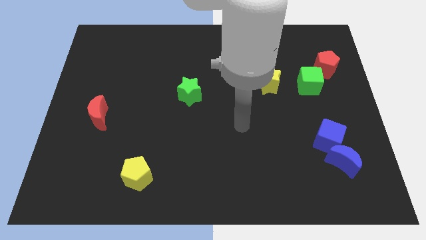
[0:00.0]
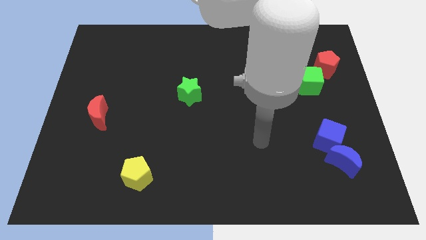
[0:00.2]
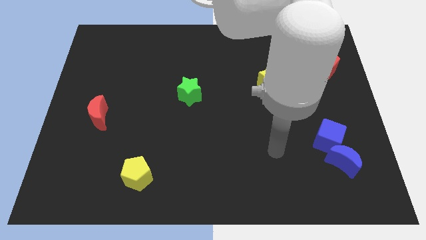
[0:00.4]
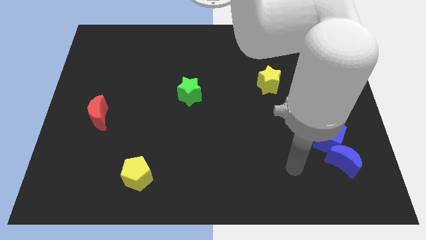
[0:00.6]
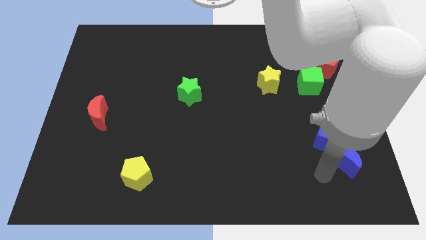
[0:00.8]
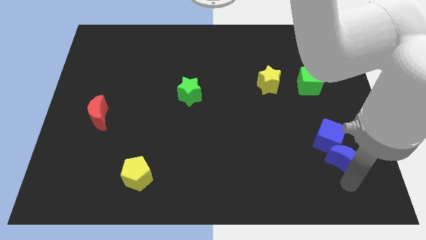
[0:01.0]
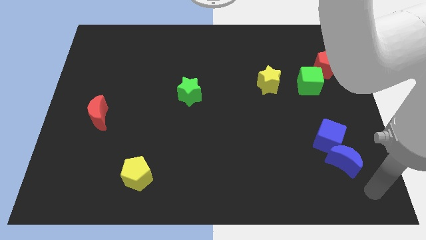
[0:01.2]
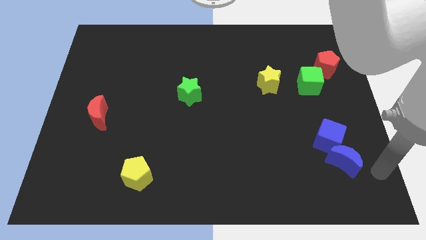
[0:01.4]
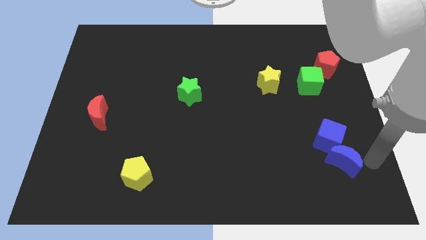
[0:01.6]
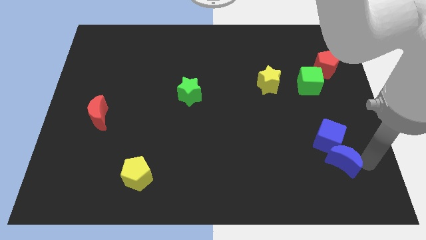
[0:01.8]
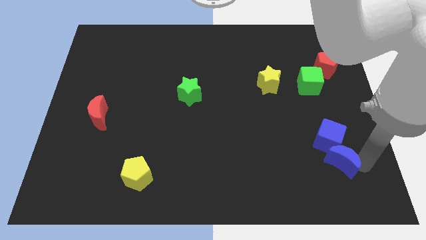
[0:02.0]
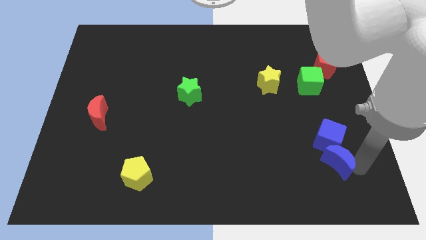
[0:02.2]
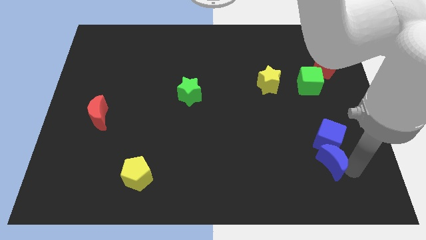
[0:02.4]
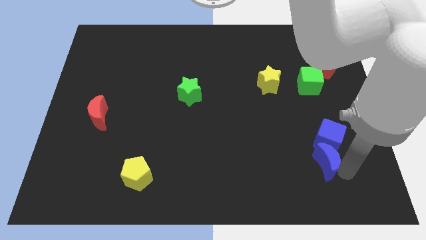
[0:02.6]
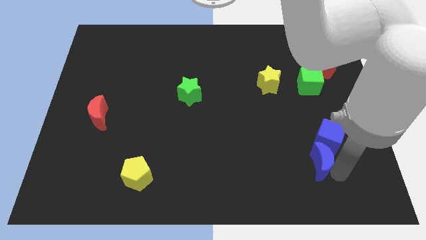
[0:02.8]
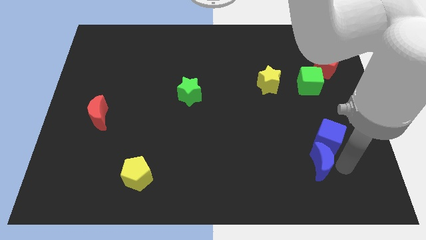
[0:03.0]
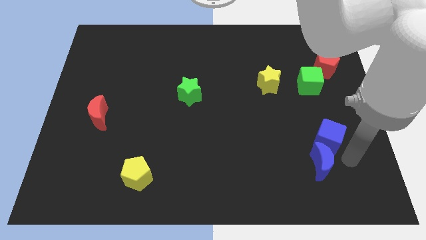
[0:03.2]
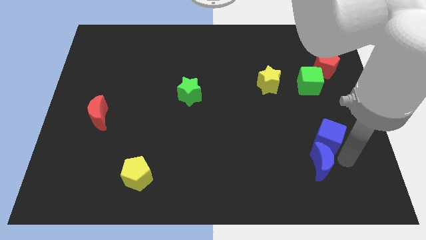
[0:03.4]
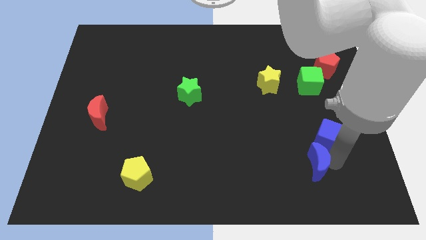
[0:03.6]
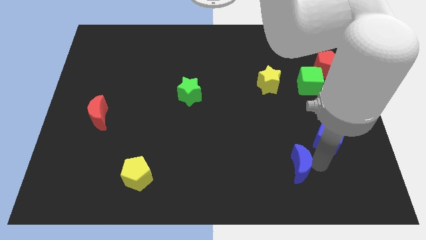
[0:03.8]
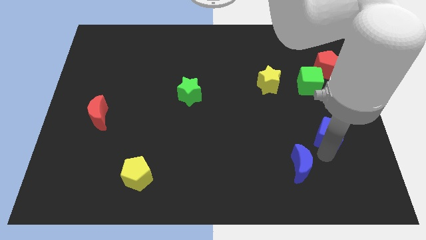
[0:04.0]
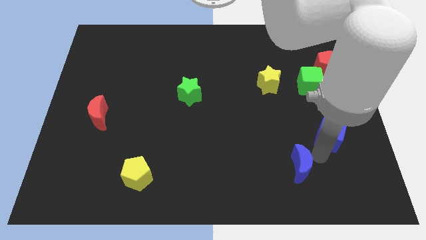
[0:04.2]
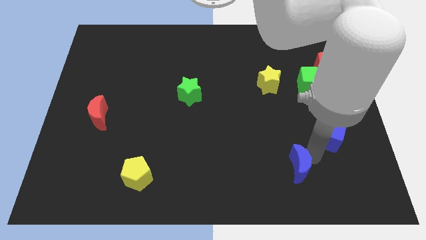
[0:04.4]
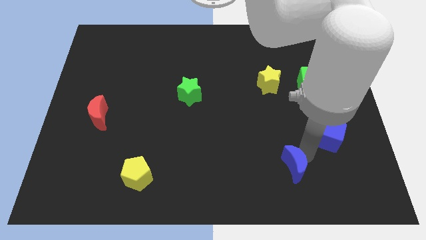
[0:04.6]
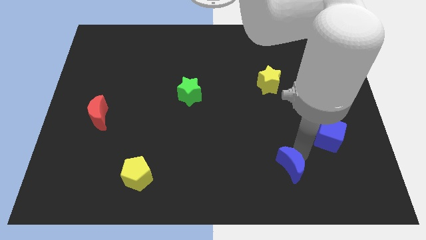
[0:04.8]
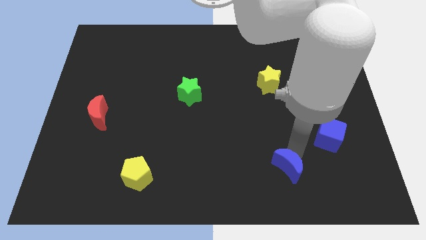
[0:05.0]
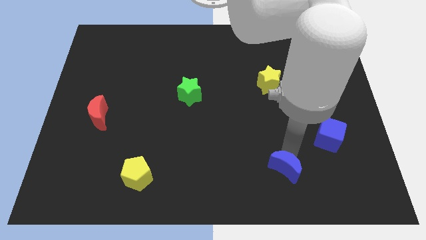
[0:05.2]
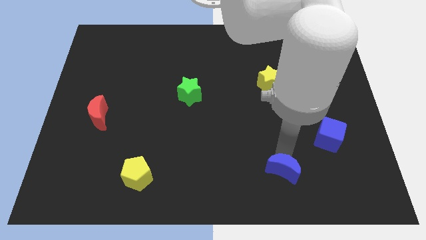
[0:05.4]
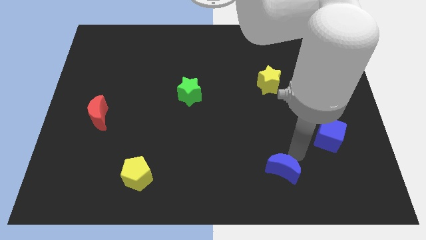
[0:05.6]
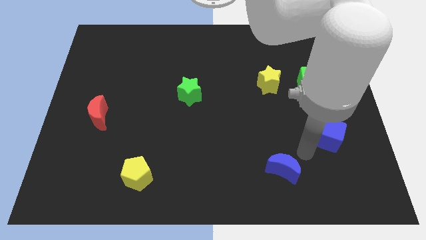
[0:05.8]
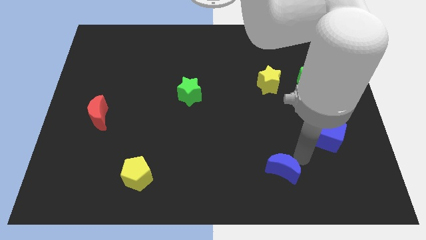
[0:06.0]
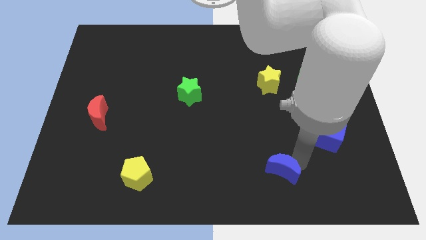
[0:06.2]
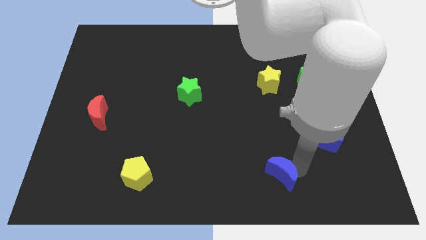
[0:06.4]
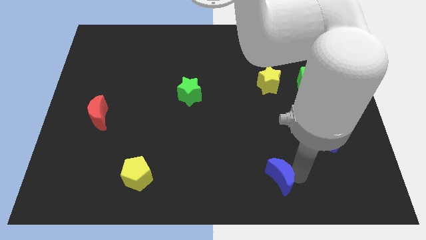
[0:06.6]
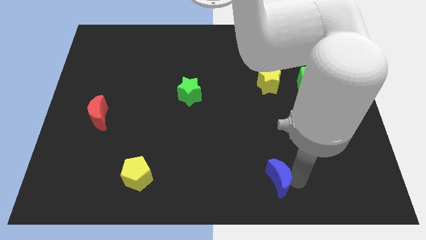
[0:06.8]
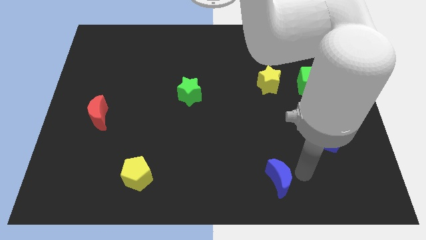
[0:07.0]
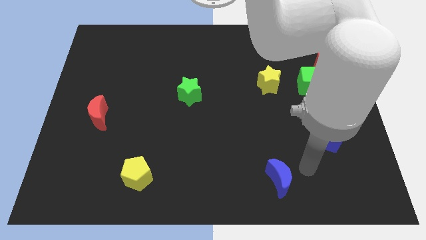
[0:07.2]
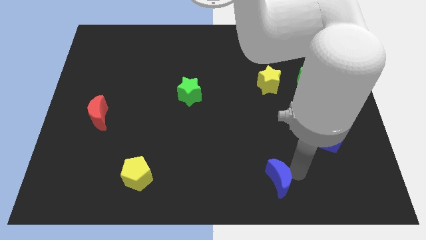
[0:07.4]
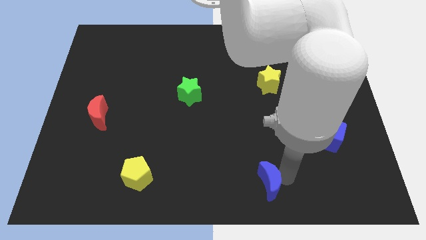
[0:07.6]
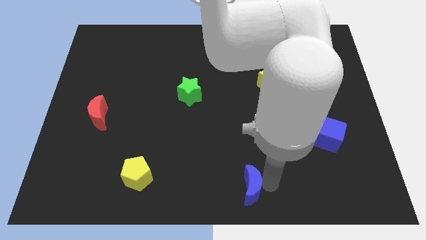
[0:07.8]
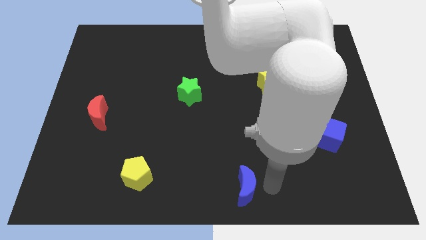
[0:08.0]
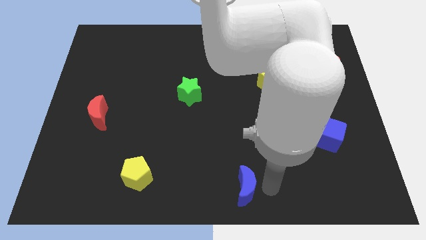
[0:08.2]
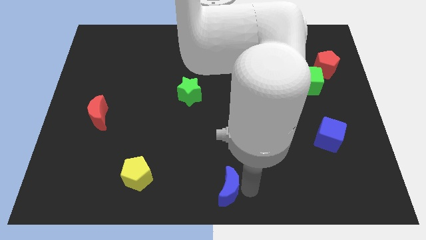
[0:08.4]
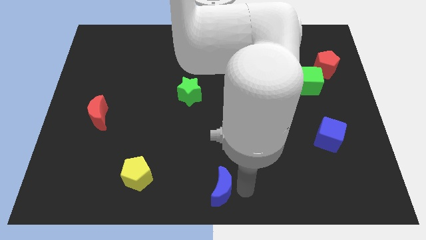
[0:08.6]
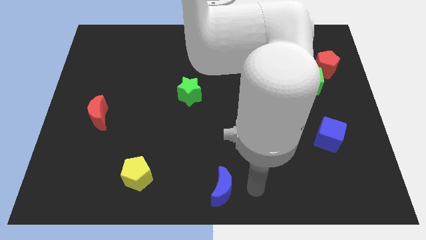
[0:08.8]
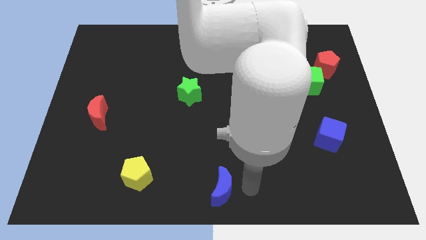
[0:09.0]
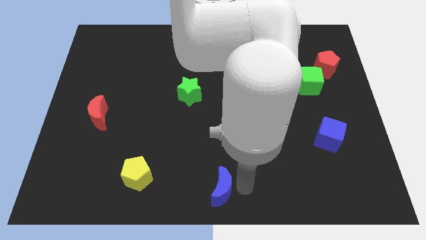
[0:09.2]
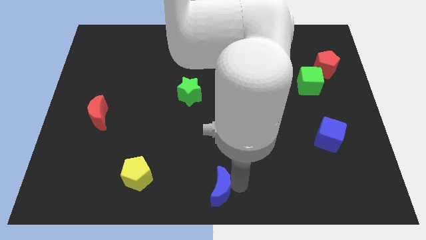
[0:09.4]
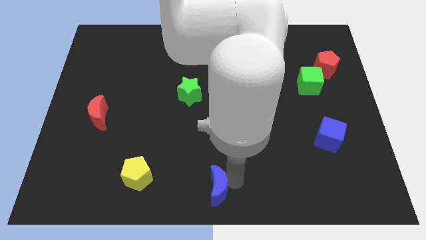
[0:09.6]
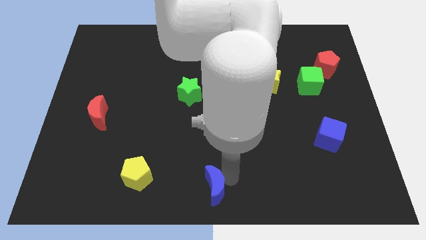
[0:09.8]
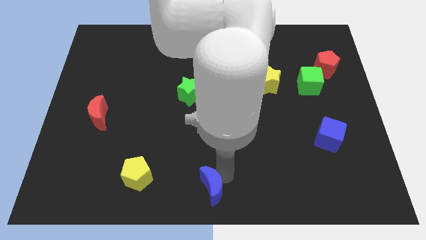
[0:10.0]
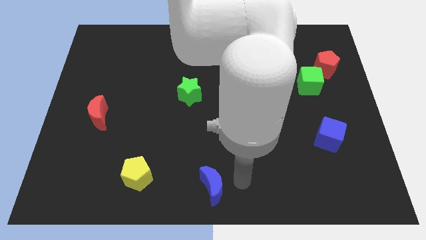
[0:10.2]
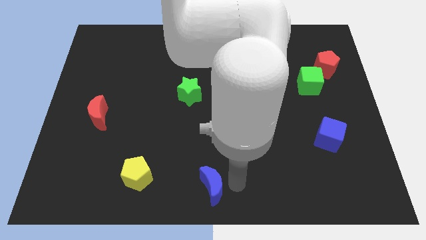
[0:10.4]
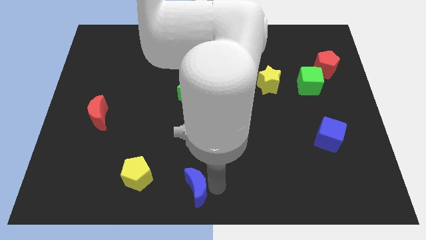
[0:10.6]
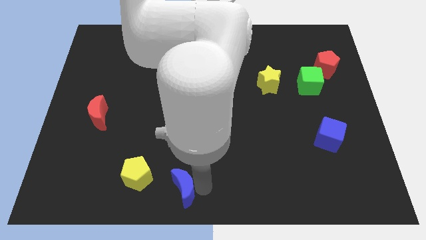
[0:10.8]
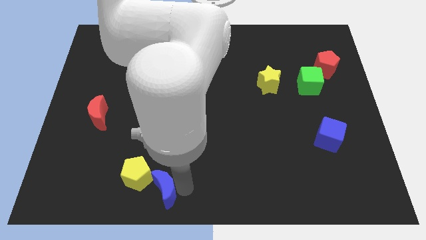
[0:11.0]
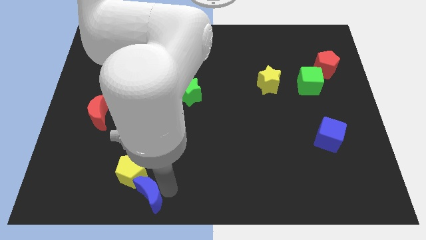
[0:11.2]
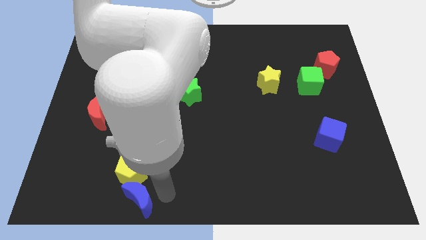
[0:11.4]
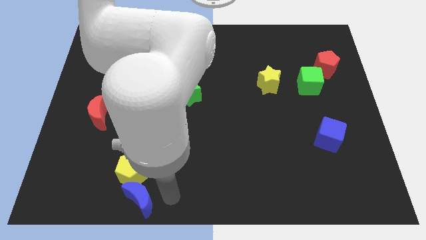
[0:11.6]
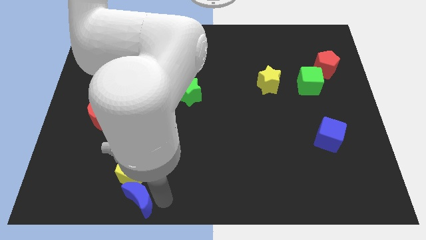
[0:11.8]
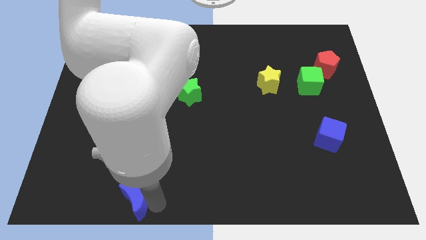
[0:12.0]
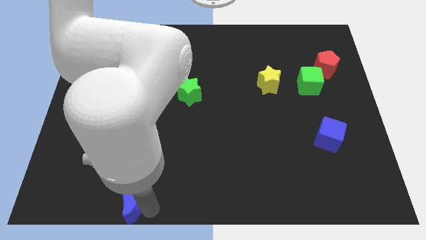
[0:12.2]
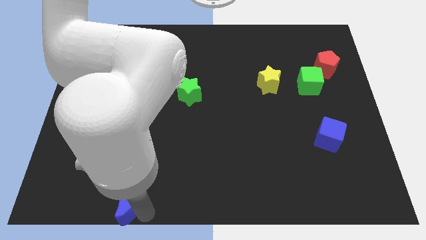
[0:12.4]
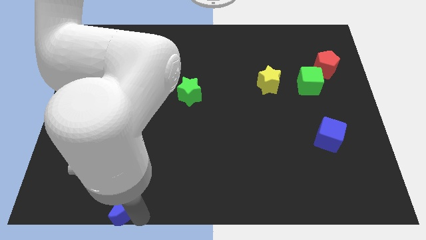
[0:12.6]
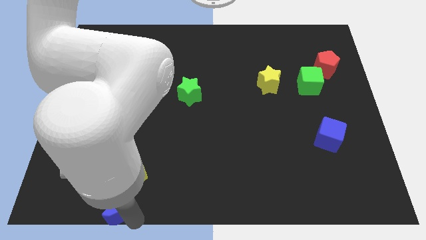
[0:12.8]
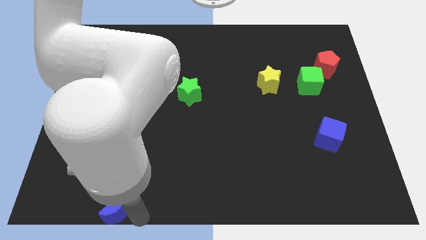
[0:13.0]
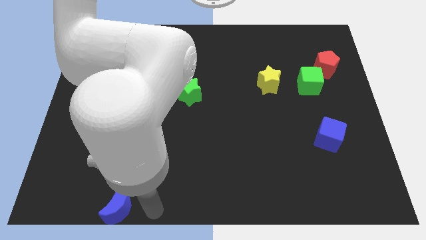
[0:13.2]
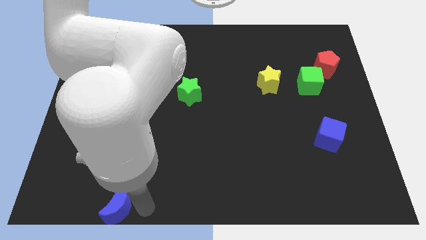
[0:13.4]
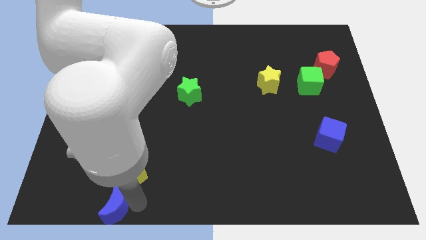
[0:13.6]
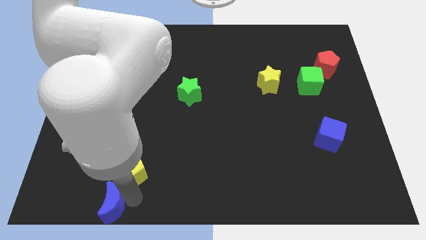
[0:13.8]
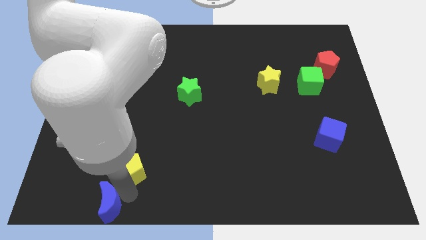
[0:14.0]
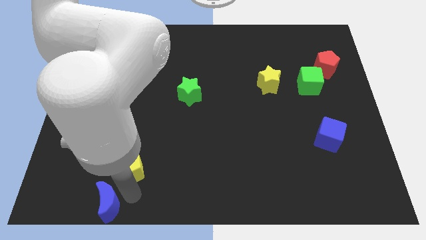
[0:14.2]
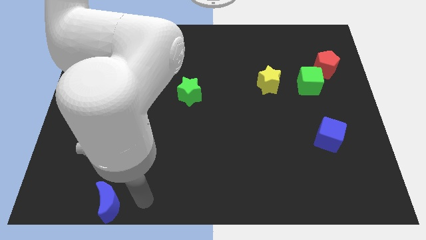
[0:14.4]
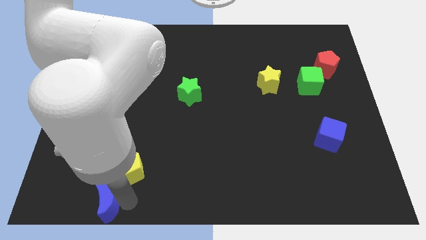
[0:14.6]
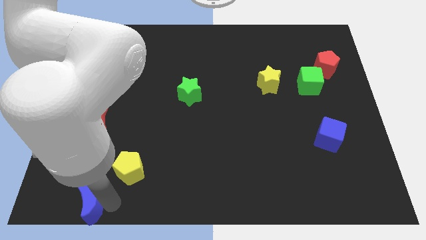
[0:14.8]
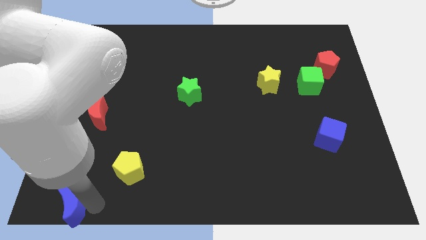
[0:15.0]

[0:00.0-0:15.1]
push the blue moon to the bottom left
